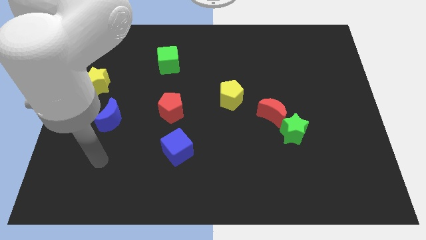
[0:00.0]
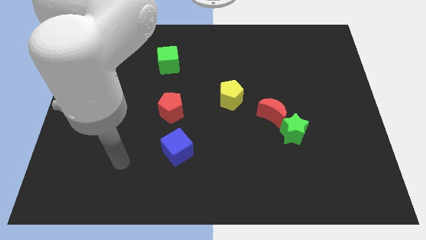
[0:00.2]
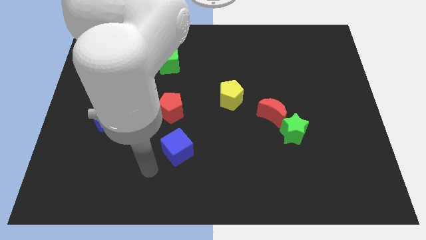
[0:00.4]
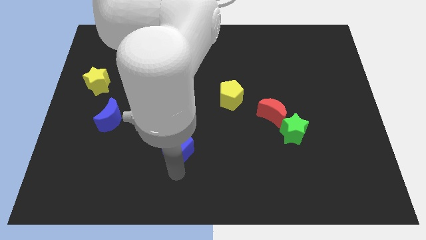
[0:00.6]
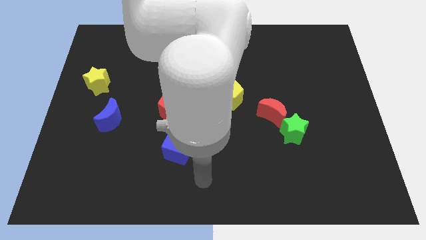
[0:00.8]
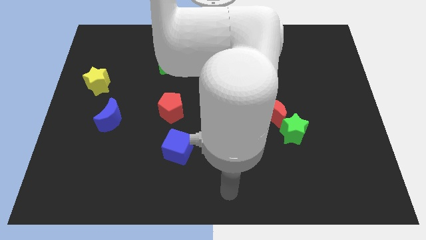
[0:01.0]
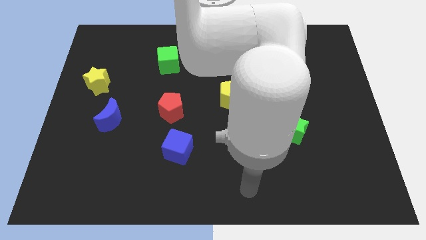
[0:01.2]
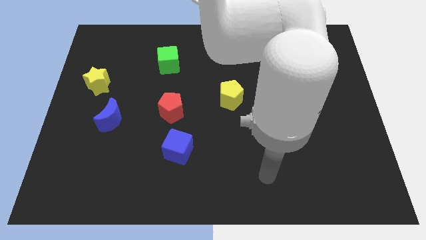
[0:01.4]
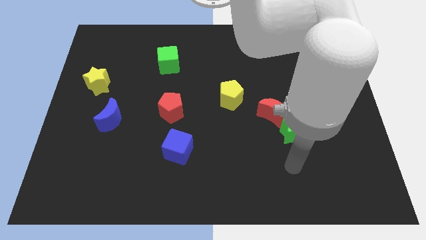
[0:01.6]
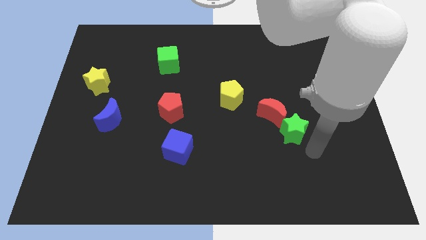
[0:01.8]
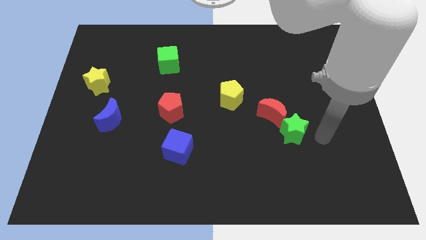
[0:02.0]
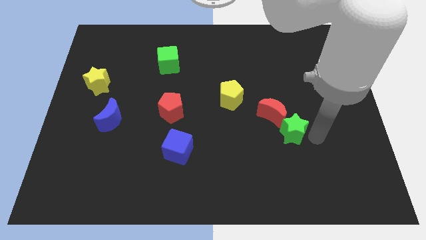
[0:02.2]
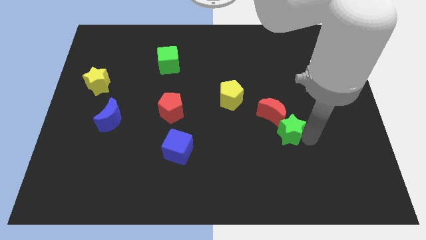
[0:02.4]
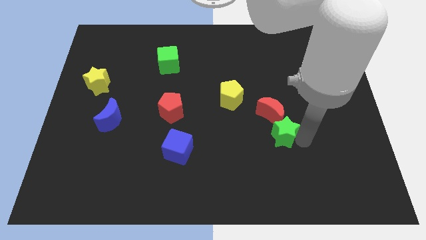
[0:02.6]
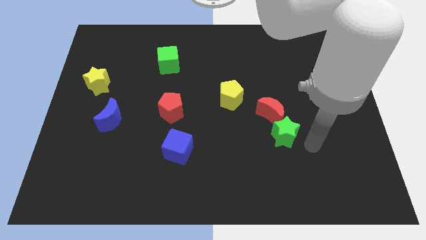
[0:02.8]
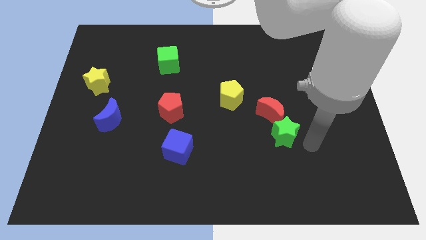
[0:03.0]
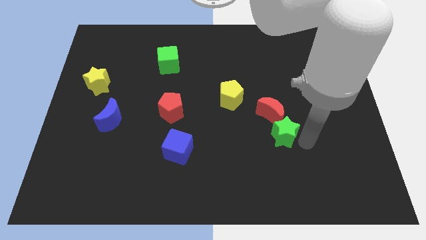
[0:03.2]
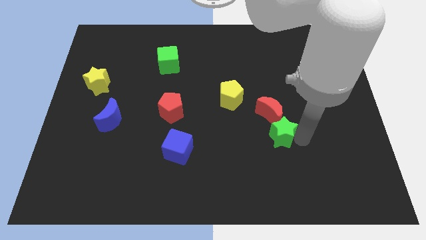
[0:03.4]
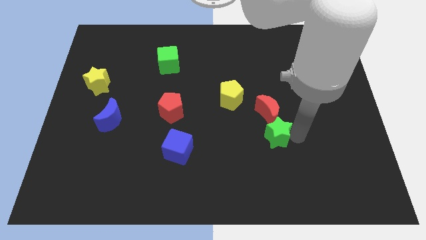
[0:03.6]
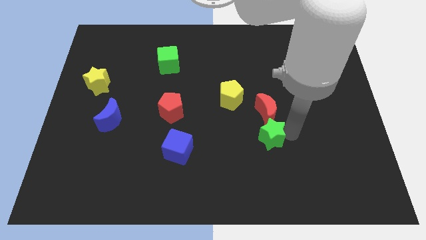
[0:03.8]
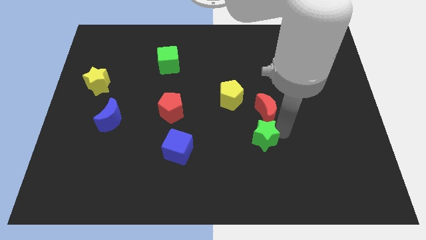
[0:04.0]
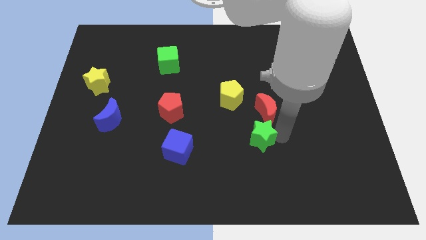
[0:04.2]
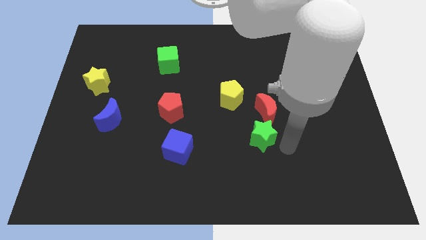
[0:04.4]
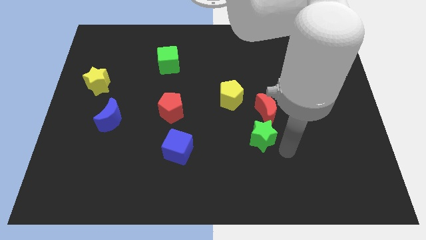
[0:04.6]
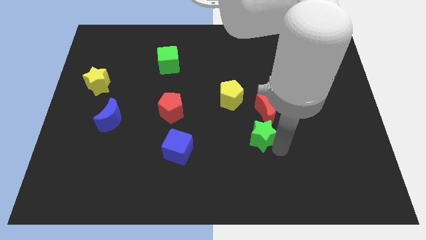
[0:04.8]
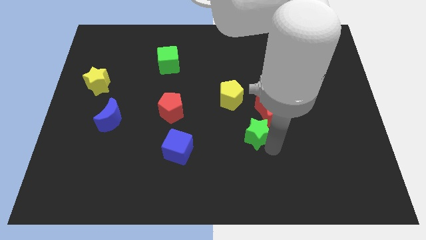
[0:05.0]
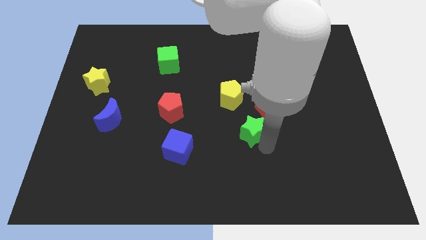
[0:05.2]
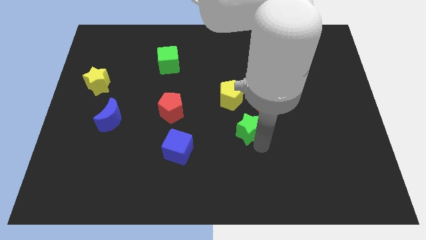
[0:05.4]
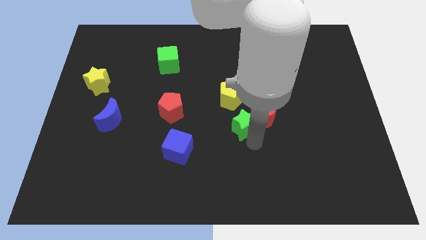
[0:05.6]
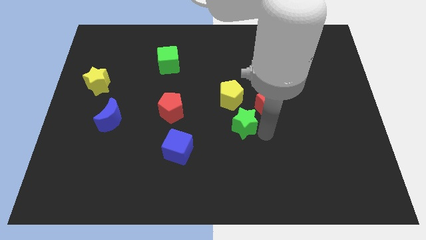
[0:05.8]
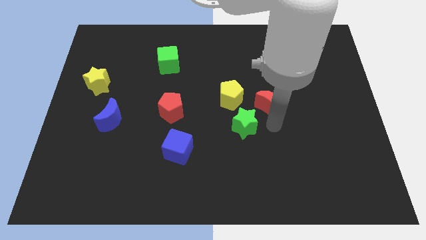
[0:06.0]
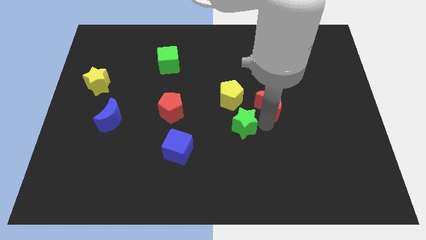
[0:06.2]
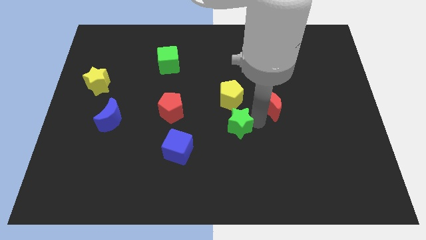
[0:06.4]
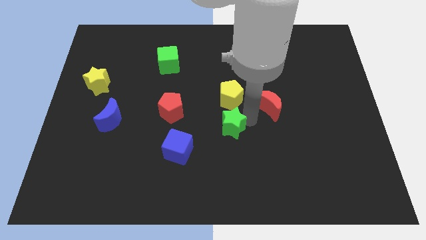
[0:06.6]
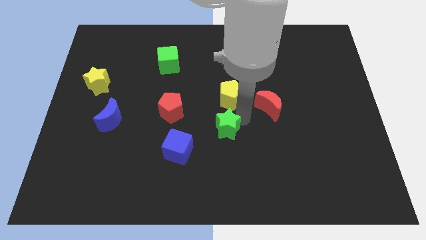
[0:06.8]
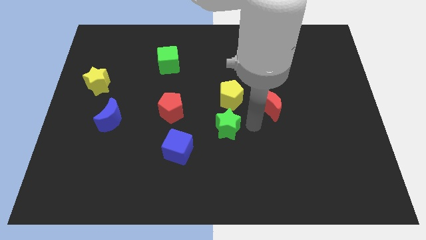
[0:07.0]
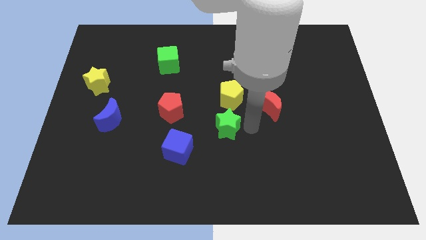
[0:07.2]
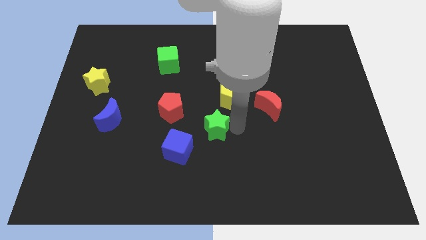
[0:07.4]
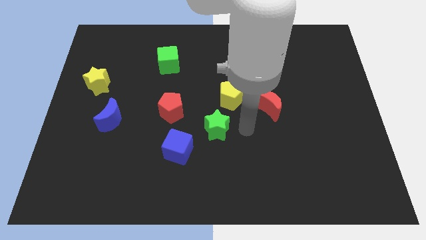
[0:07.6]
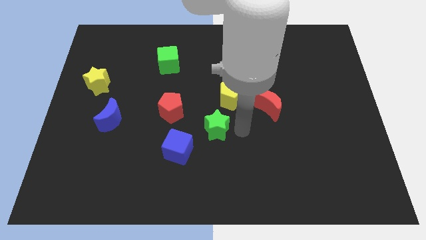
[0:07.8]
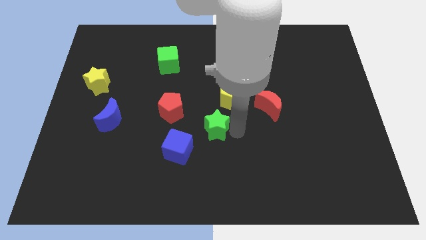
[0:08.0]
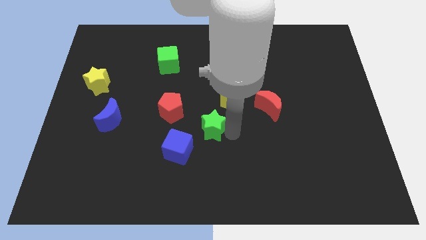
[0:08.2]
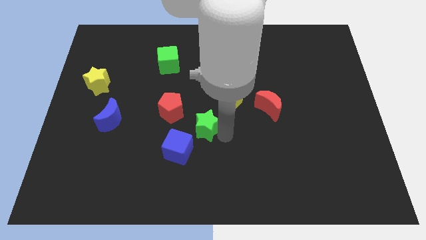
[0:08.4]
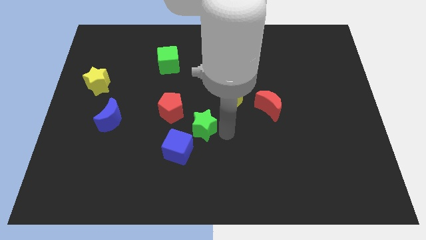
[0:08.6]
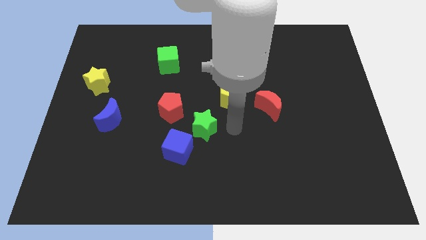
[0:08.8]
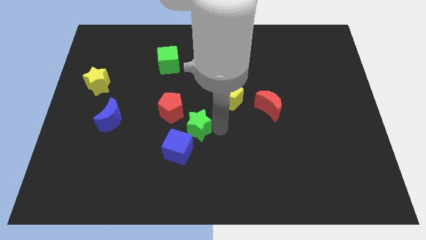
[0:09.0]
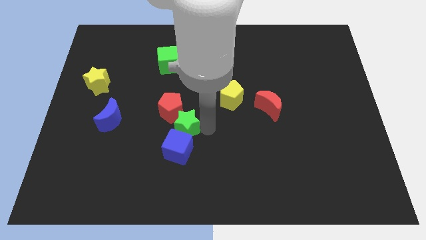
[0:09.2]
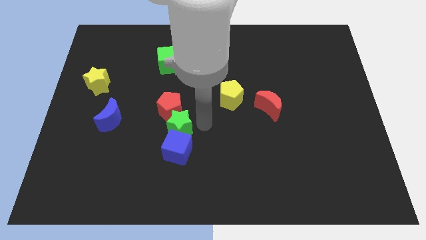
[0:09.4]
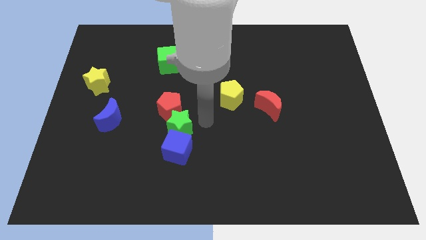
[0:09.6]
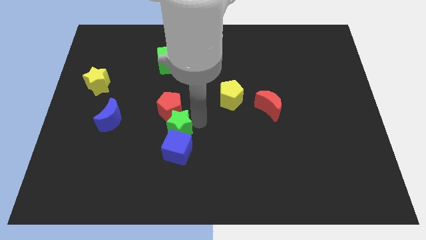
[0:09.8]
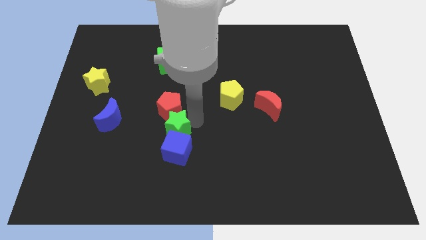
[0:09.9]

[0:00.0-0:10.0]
move the green star to the right of the blue moon

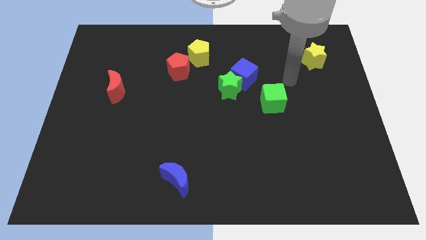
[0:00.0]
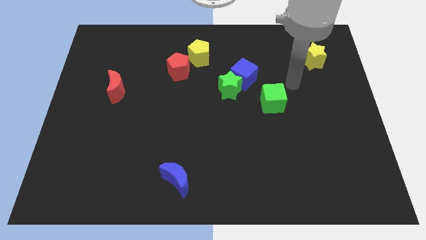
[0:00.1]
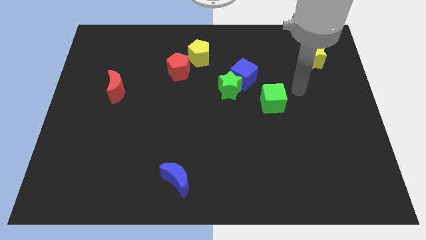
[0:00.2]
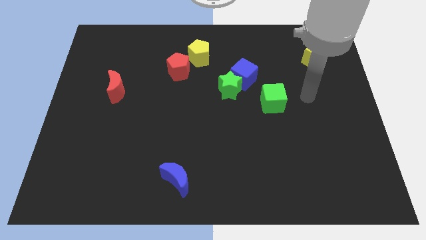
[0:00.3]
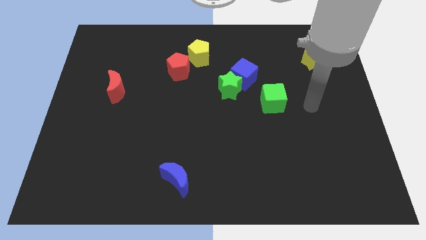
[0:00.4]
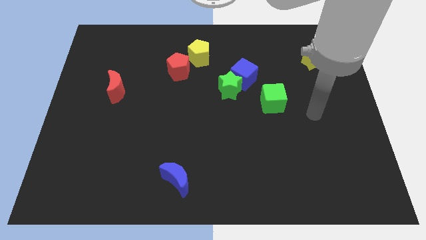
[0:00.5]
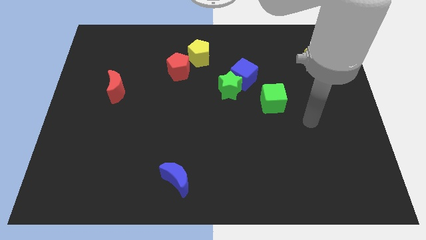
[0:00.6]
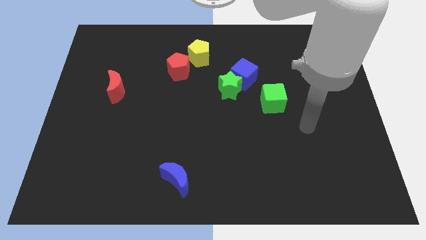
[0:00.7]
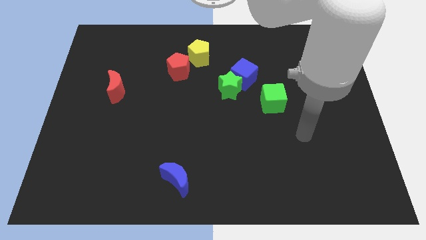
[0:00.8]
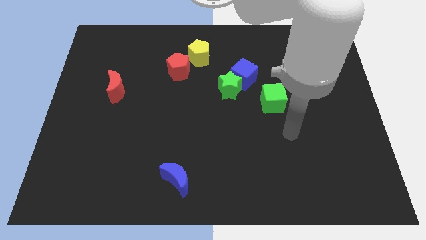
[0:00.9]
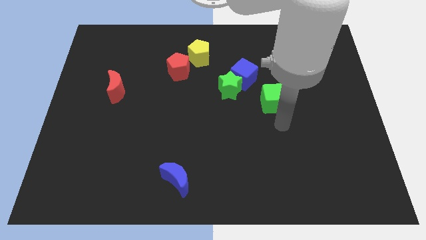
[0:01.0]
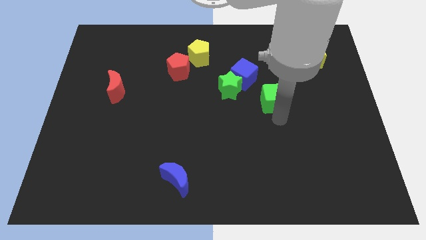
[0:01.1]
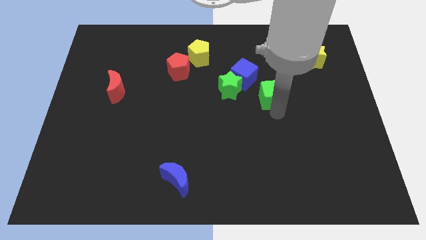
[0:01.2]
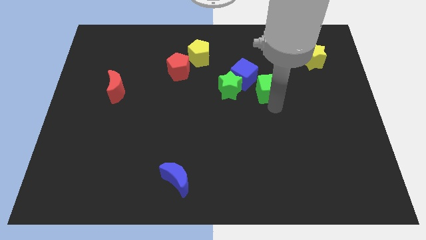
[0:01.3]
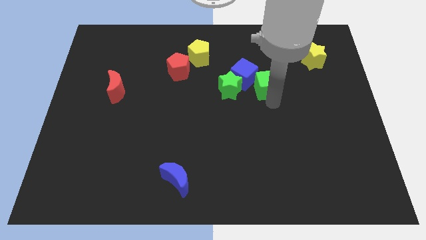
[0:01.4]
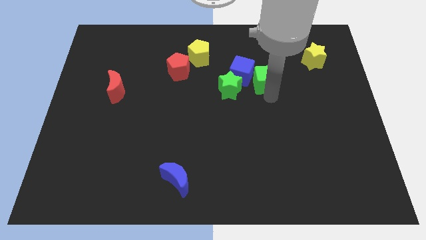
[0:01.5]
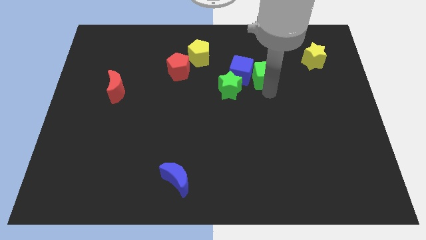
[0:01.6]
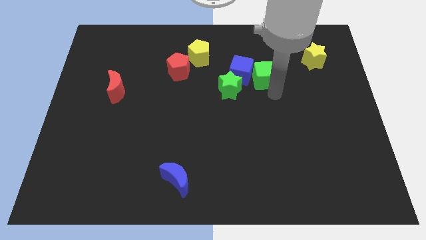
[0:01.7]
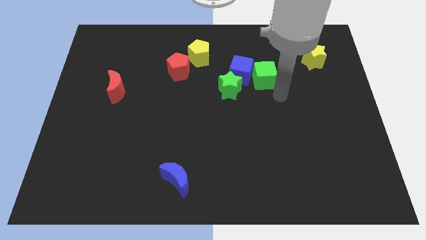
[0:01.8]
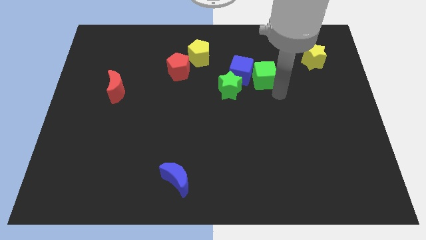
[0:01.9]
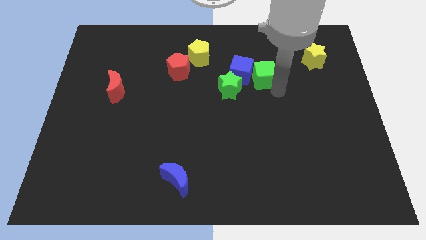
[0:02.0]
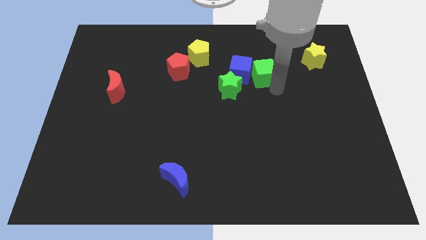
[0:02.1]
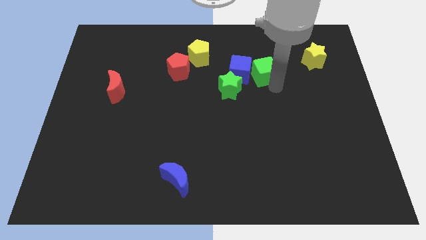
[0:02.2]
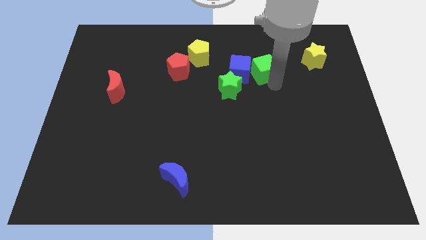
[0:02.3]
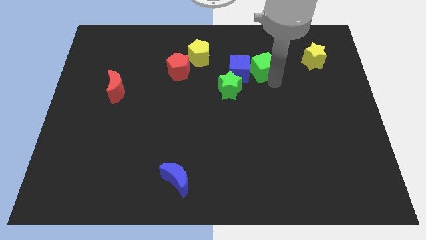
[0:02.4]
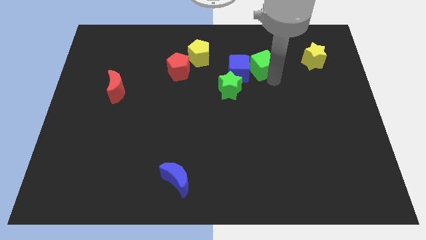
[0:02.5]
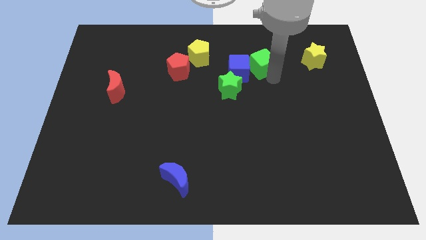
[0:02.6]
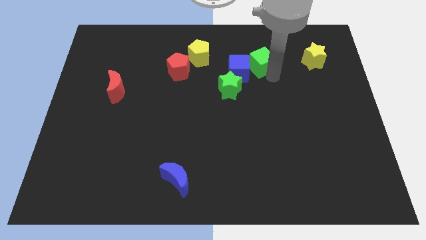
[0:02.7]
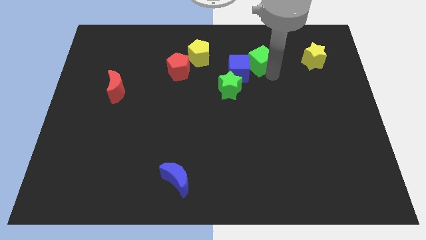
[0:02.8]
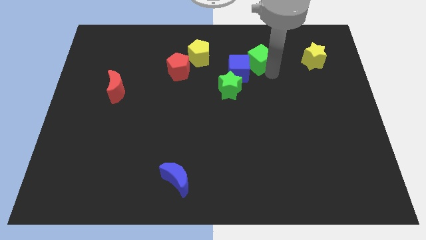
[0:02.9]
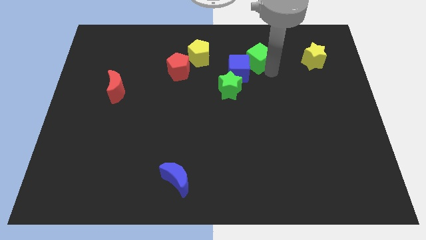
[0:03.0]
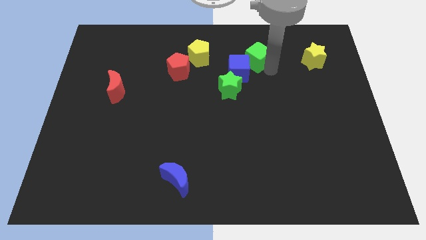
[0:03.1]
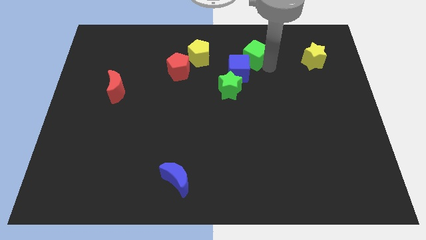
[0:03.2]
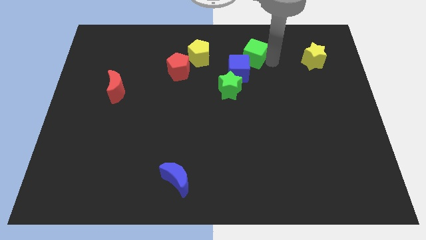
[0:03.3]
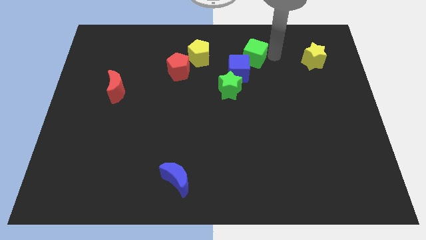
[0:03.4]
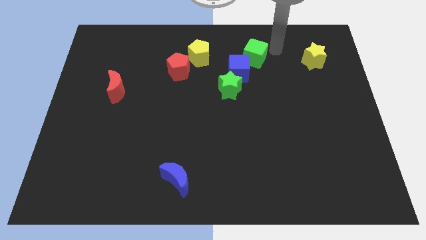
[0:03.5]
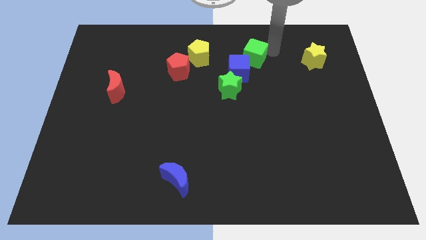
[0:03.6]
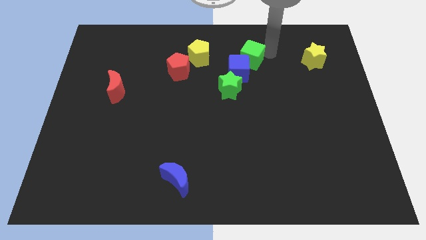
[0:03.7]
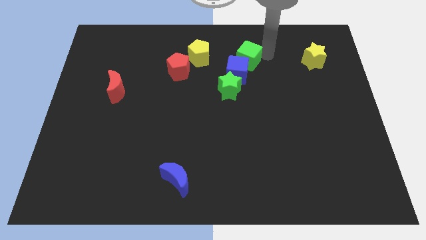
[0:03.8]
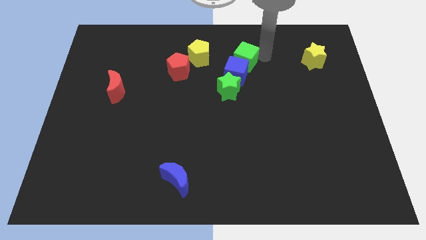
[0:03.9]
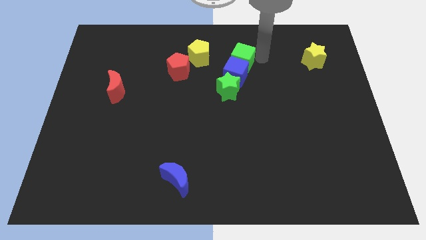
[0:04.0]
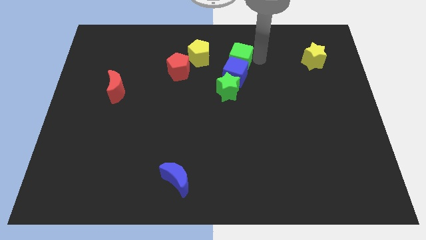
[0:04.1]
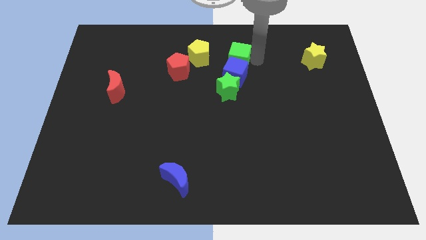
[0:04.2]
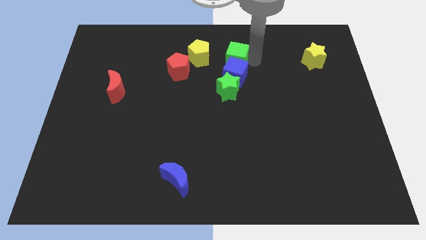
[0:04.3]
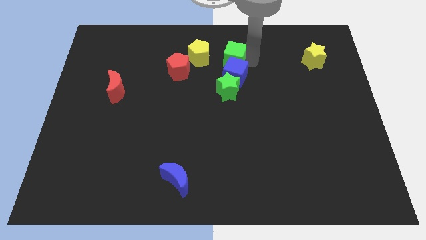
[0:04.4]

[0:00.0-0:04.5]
push the green cube to the right of the red pentagon
